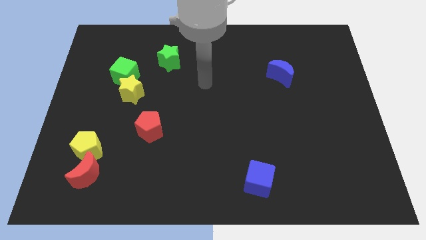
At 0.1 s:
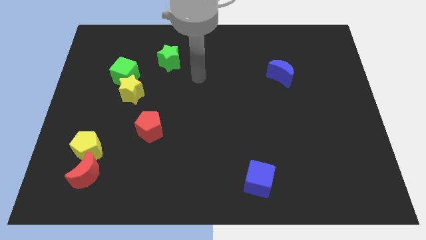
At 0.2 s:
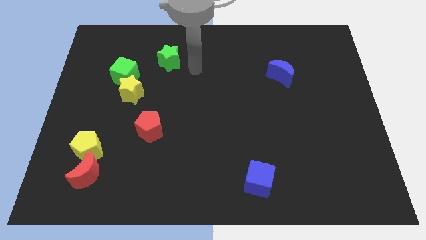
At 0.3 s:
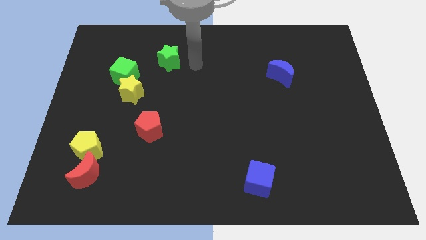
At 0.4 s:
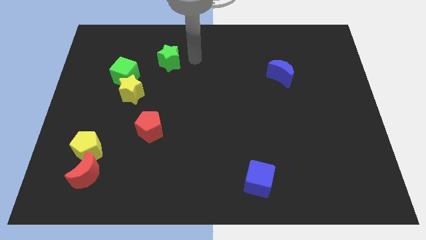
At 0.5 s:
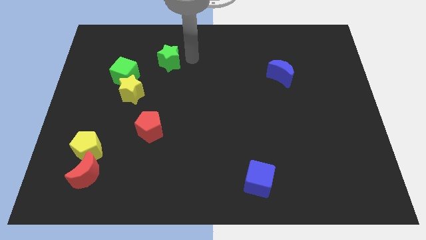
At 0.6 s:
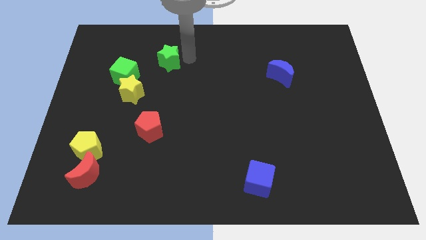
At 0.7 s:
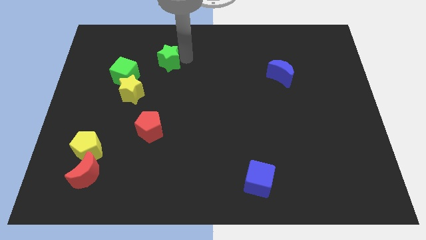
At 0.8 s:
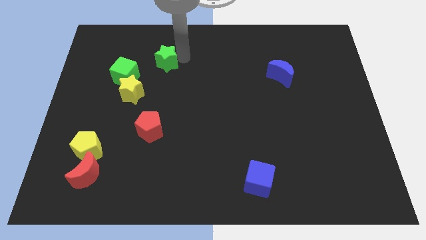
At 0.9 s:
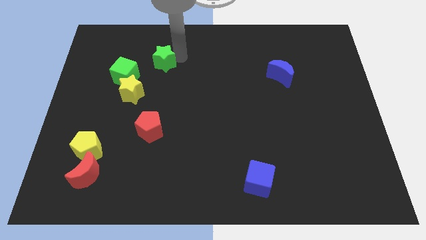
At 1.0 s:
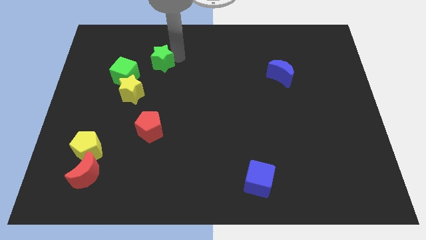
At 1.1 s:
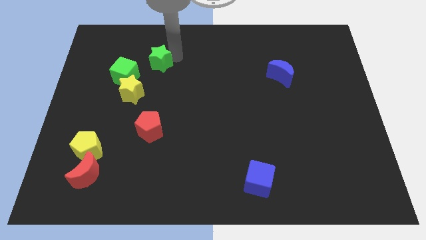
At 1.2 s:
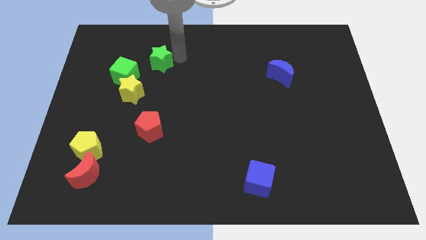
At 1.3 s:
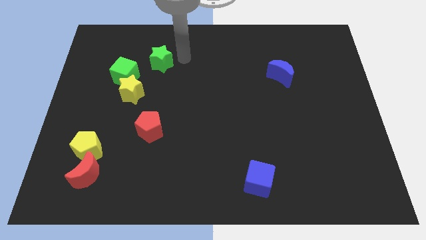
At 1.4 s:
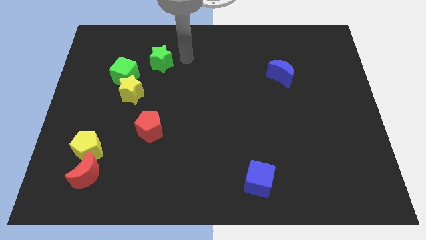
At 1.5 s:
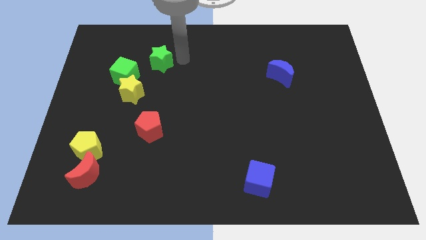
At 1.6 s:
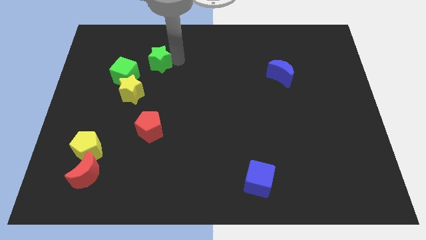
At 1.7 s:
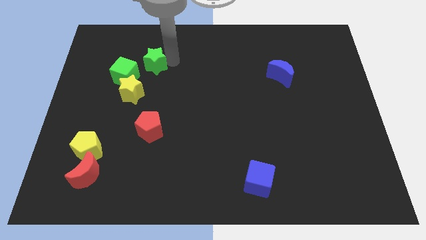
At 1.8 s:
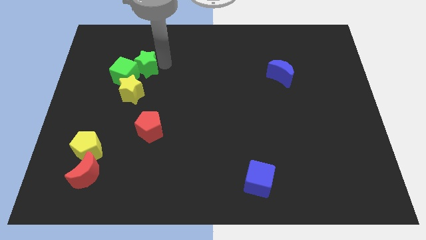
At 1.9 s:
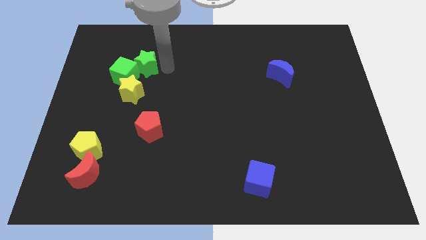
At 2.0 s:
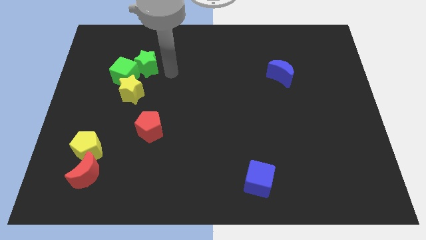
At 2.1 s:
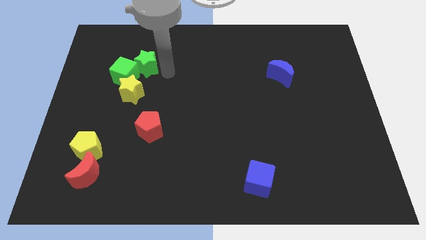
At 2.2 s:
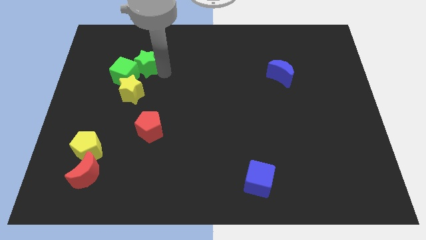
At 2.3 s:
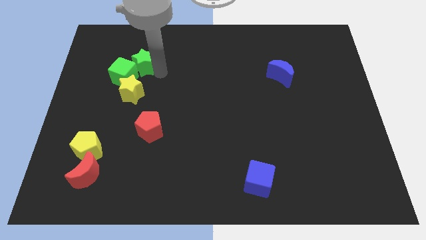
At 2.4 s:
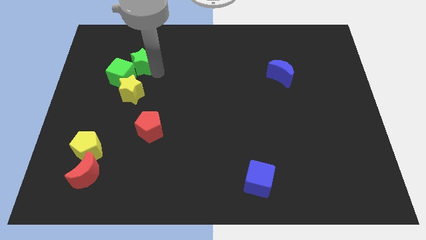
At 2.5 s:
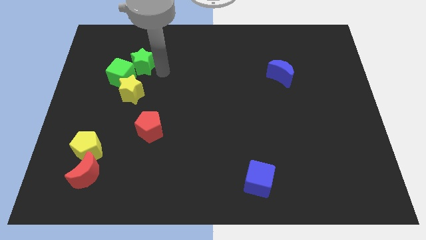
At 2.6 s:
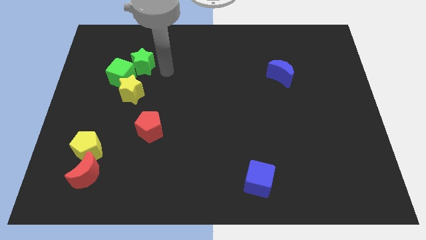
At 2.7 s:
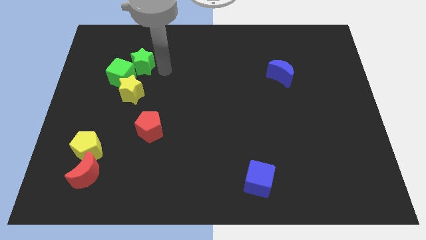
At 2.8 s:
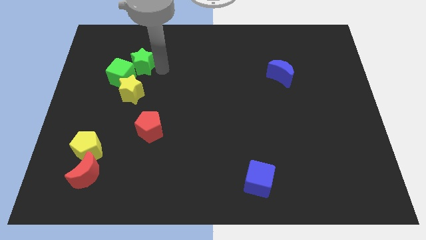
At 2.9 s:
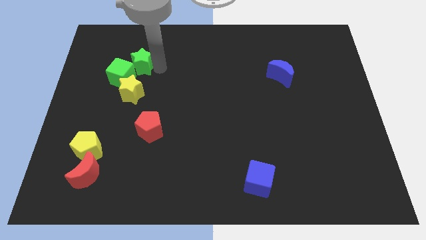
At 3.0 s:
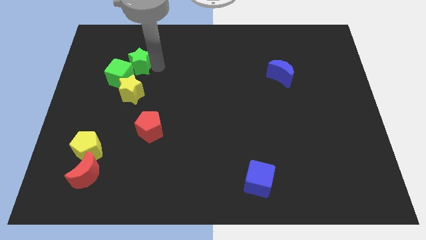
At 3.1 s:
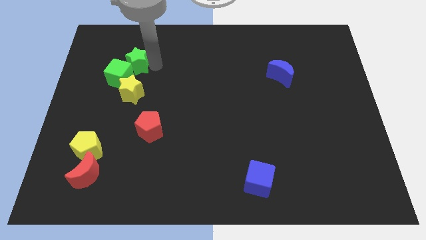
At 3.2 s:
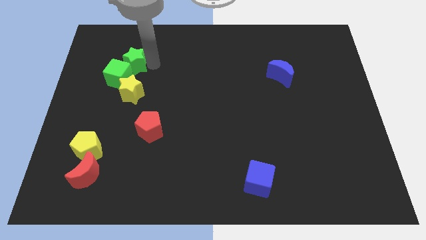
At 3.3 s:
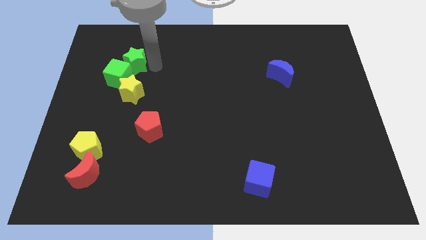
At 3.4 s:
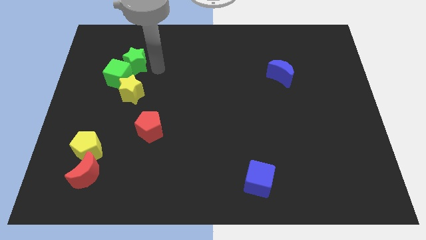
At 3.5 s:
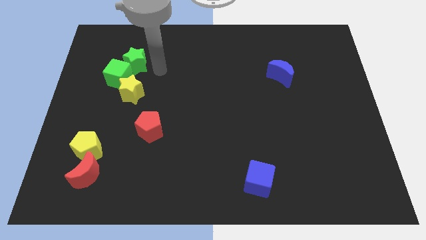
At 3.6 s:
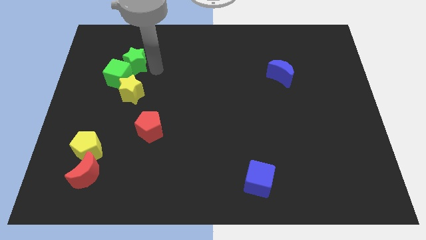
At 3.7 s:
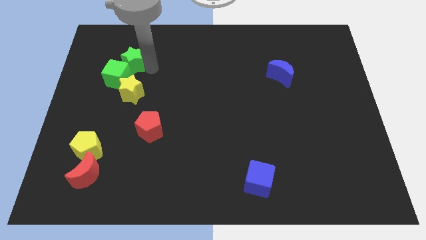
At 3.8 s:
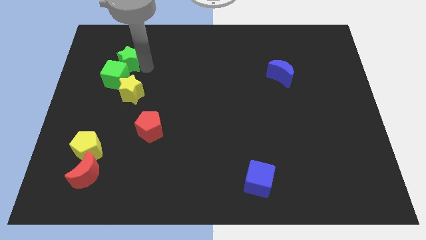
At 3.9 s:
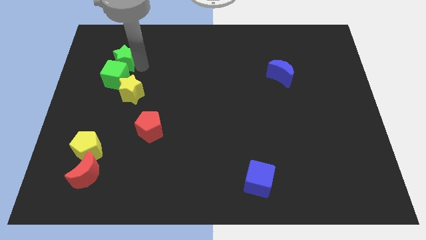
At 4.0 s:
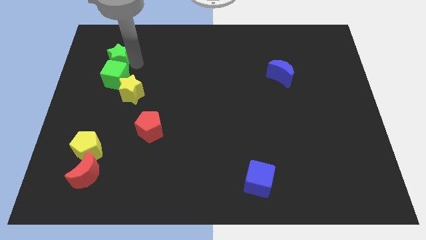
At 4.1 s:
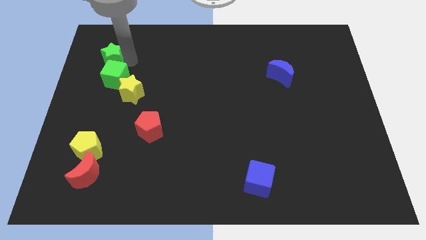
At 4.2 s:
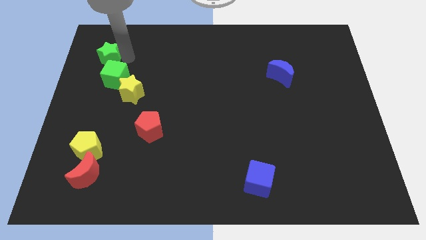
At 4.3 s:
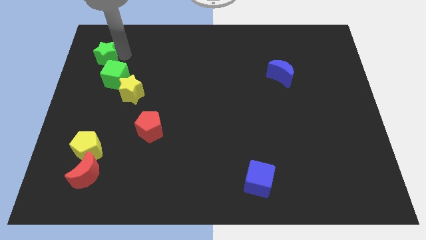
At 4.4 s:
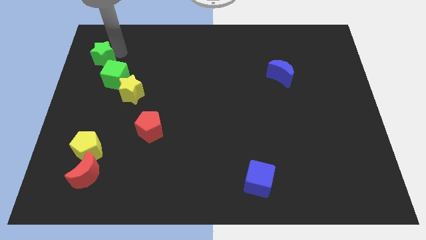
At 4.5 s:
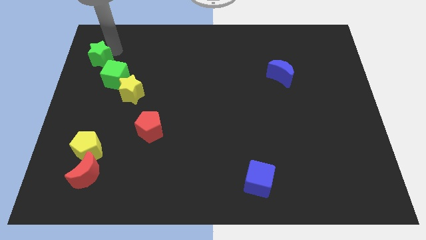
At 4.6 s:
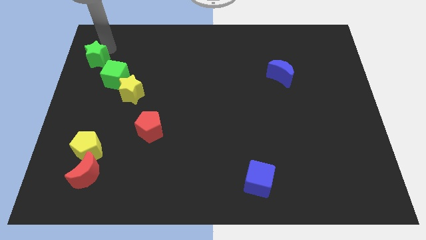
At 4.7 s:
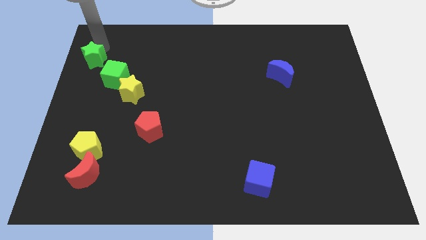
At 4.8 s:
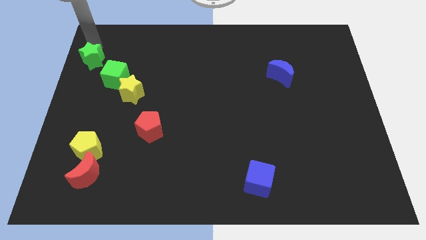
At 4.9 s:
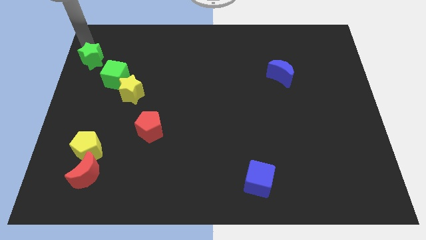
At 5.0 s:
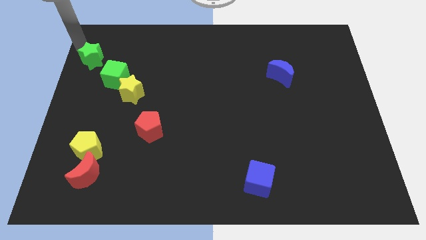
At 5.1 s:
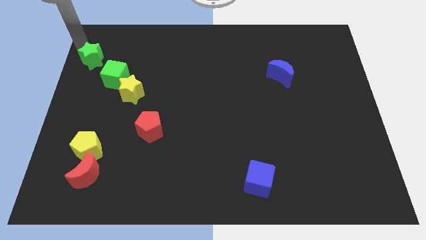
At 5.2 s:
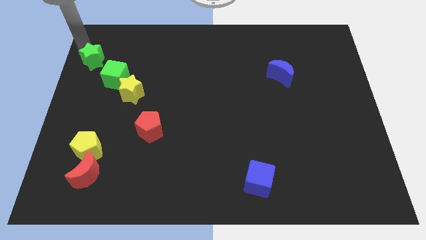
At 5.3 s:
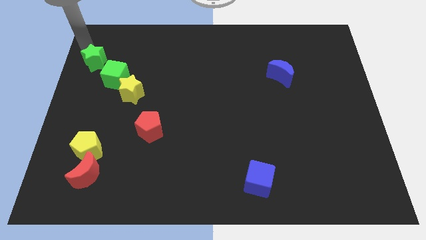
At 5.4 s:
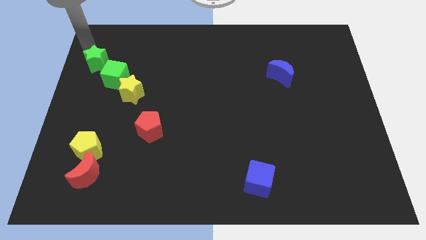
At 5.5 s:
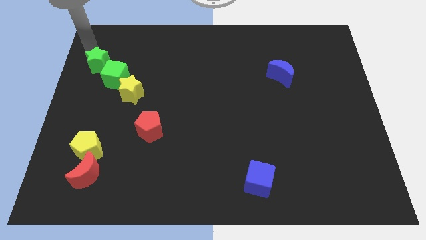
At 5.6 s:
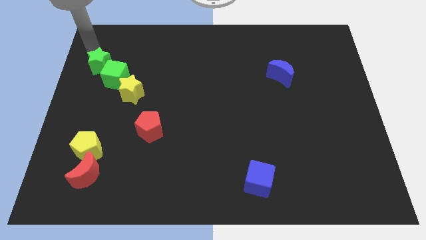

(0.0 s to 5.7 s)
move the green star diagonally up and to the left of the yellow star

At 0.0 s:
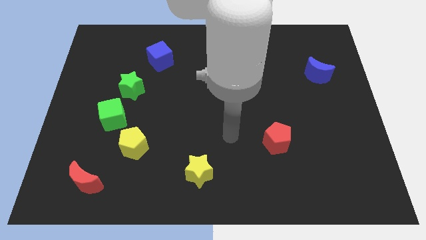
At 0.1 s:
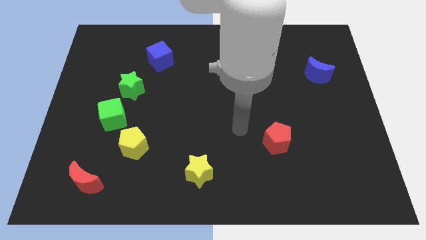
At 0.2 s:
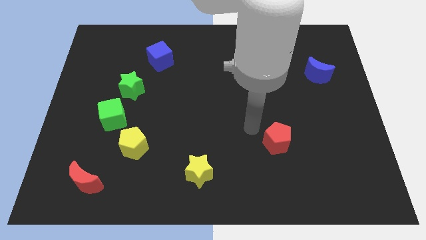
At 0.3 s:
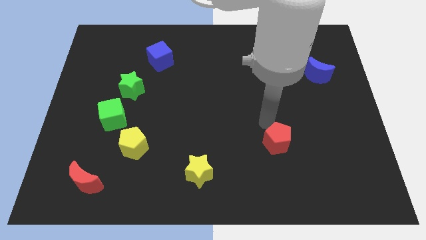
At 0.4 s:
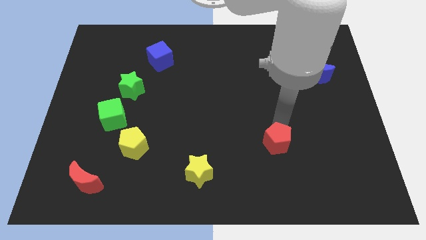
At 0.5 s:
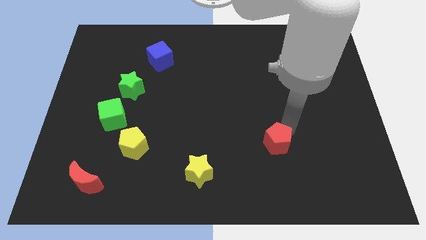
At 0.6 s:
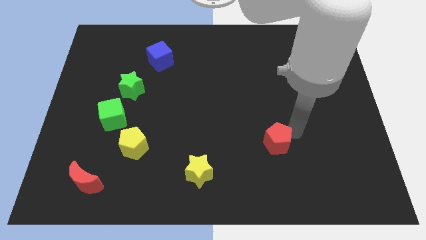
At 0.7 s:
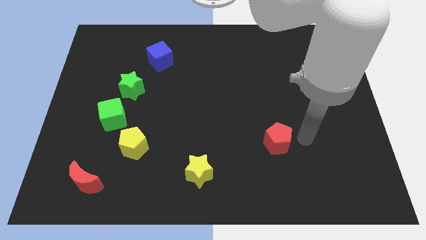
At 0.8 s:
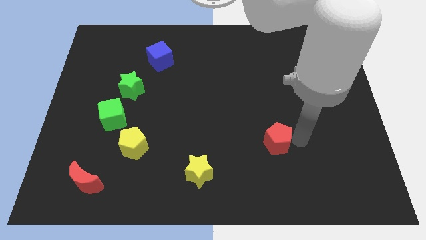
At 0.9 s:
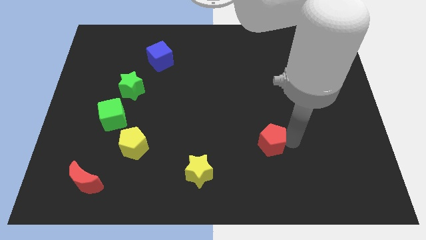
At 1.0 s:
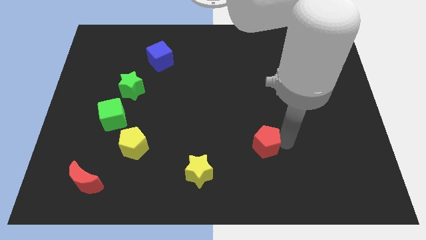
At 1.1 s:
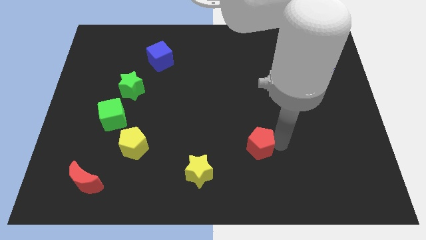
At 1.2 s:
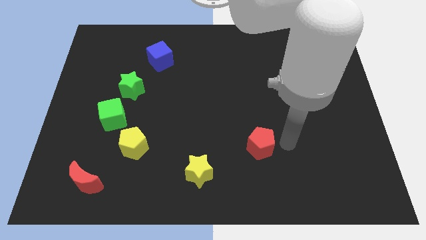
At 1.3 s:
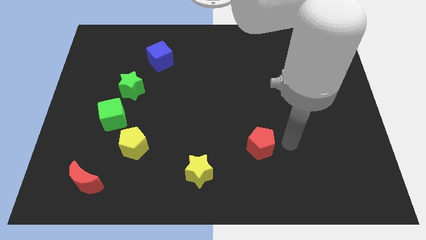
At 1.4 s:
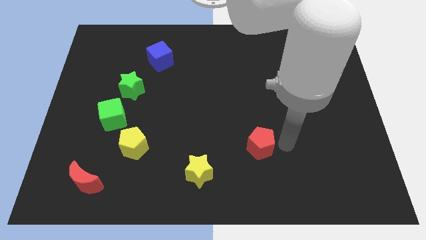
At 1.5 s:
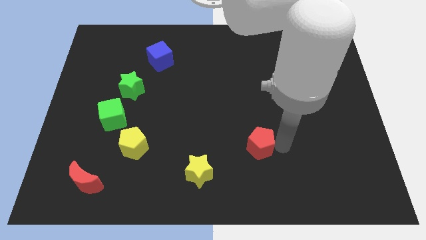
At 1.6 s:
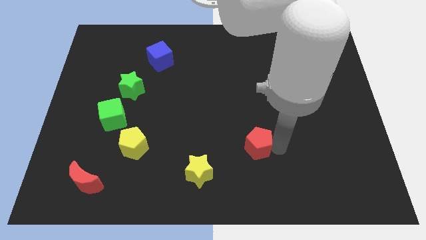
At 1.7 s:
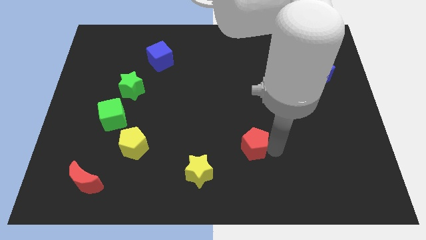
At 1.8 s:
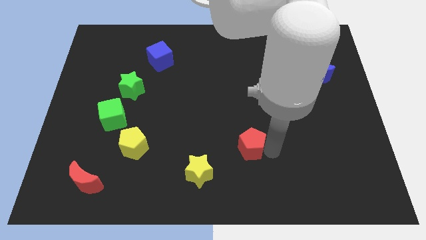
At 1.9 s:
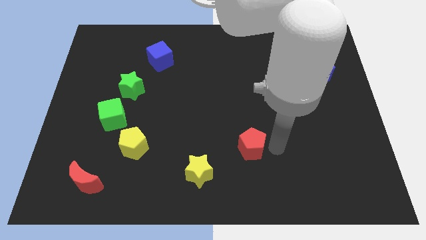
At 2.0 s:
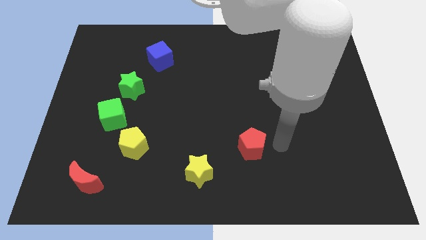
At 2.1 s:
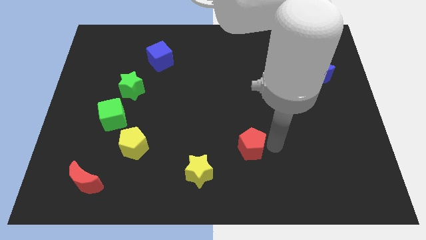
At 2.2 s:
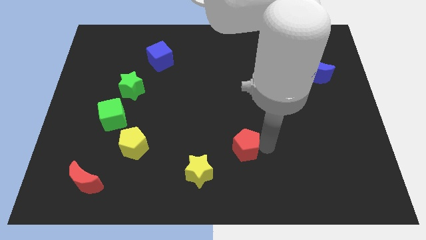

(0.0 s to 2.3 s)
move the red pentagon diagonally up and to the right of the yellow star
